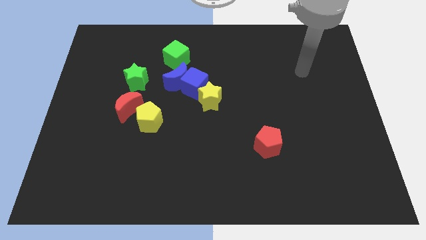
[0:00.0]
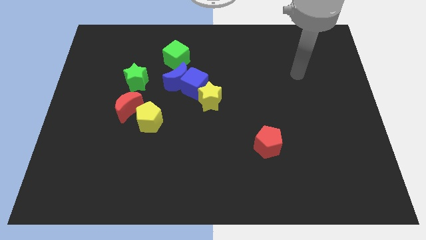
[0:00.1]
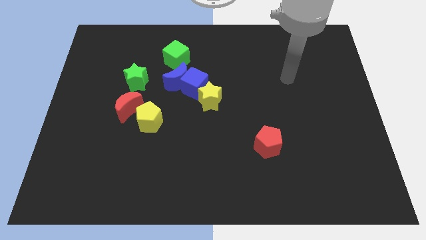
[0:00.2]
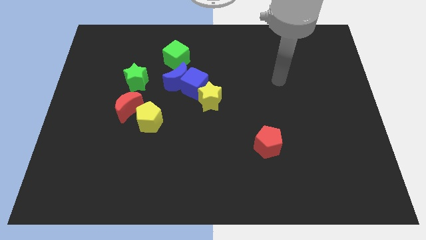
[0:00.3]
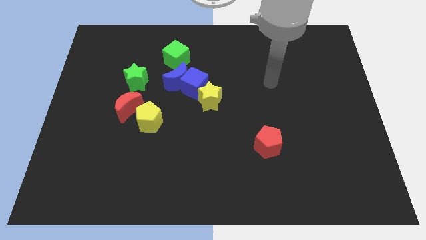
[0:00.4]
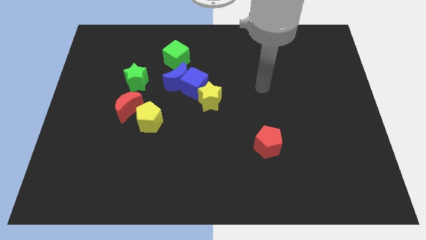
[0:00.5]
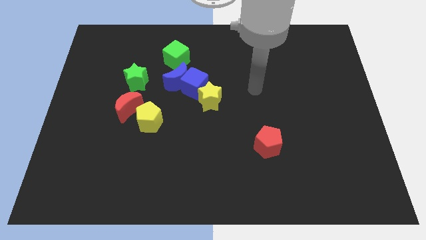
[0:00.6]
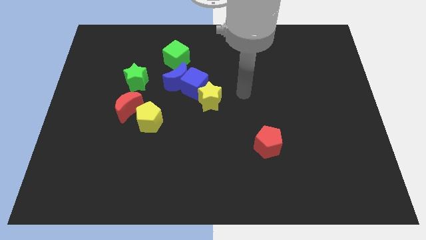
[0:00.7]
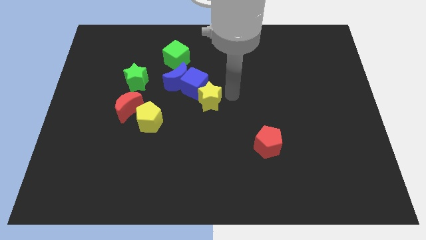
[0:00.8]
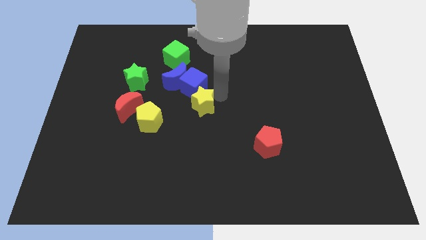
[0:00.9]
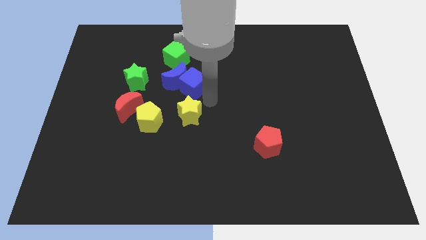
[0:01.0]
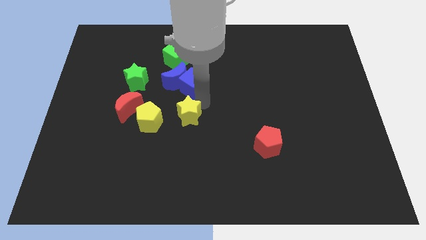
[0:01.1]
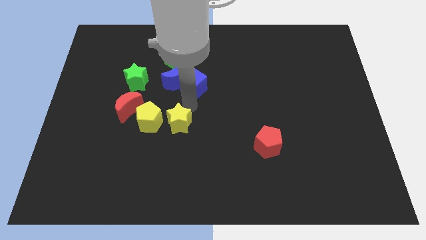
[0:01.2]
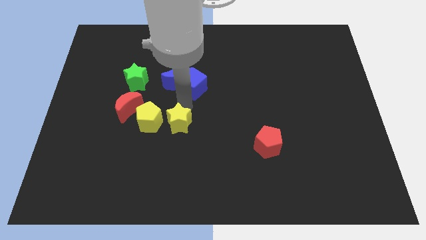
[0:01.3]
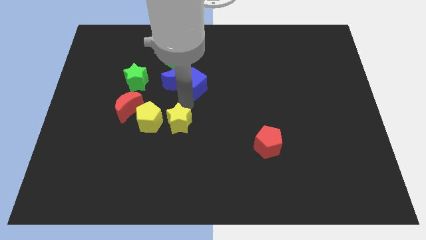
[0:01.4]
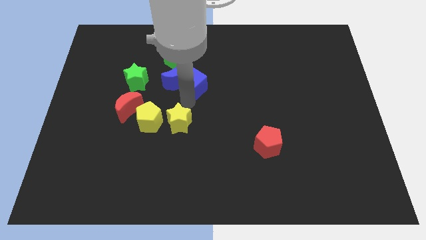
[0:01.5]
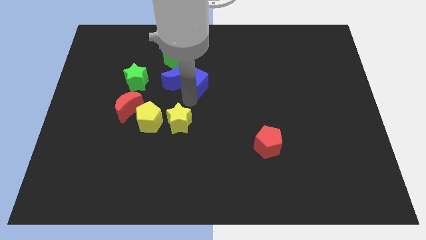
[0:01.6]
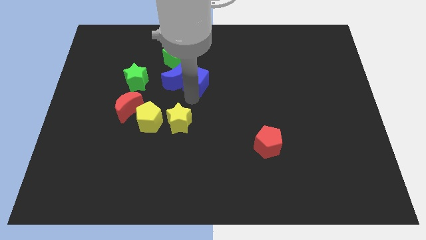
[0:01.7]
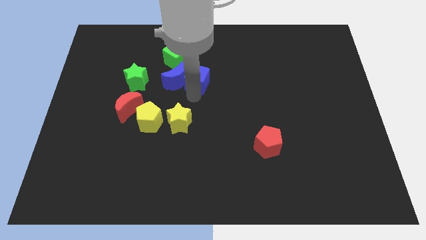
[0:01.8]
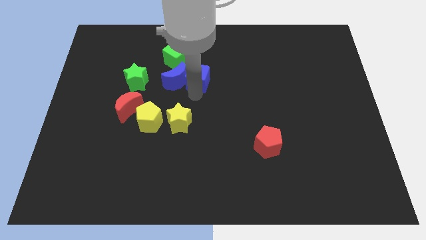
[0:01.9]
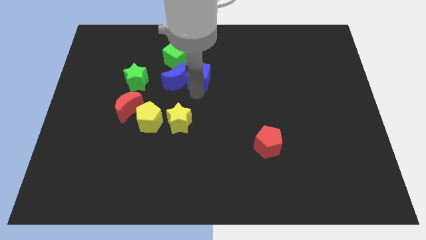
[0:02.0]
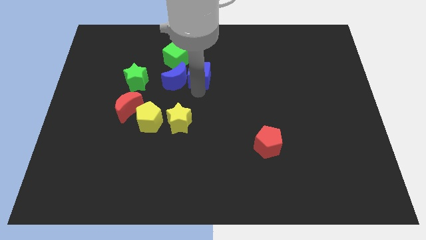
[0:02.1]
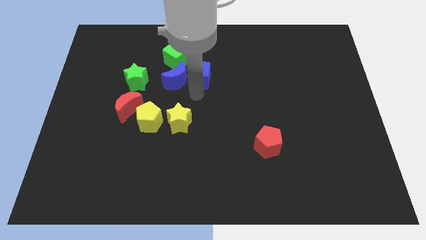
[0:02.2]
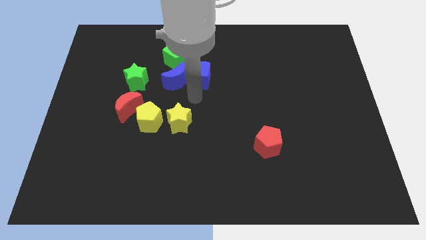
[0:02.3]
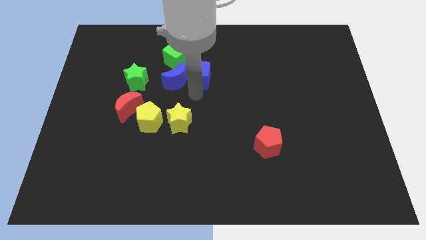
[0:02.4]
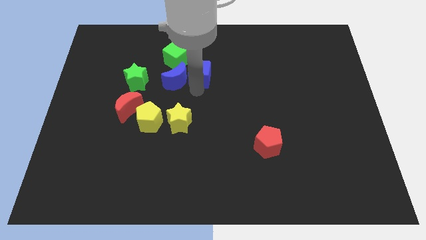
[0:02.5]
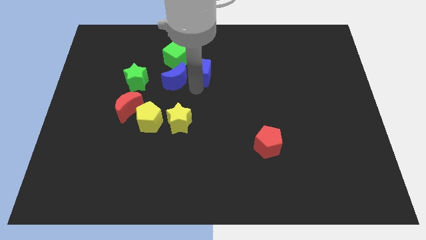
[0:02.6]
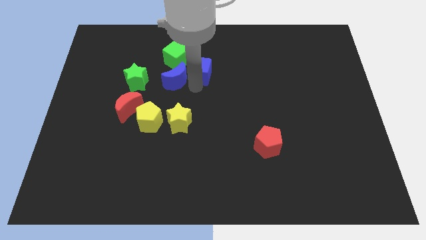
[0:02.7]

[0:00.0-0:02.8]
separate the blue cube from the blue moon and yellow star

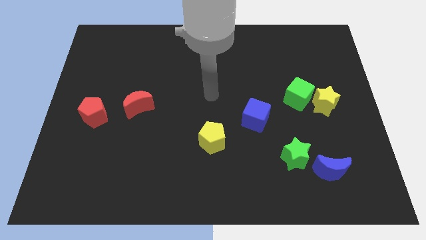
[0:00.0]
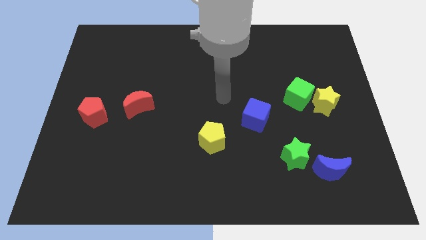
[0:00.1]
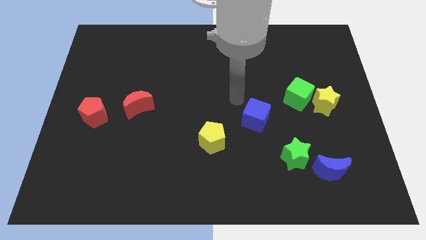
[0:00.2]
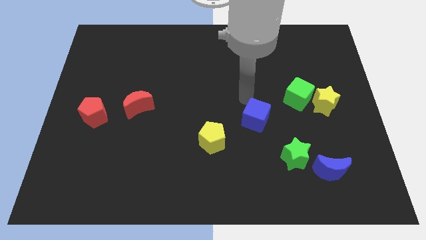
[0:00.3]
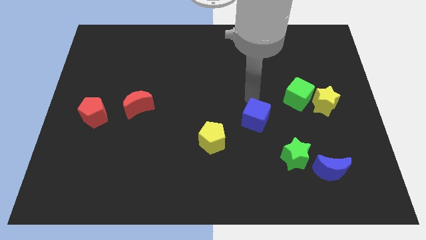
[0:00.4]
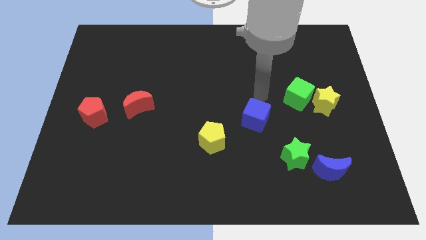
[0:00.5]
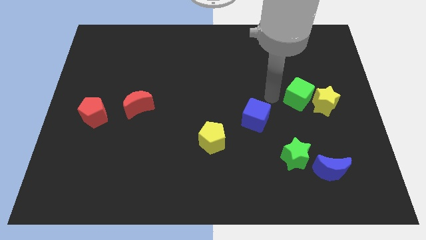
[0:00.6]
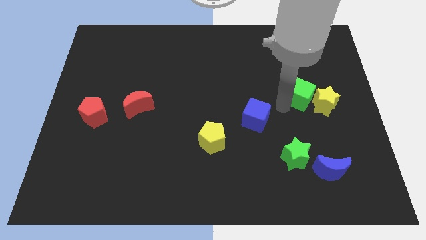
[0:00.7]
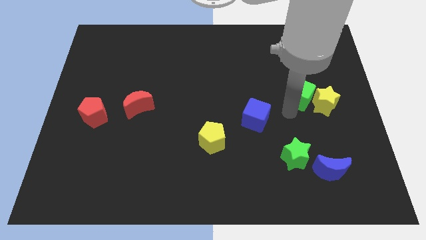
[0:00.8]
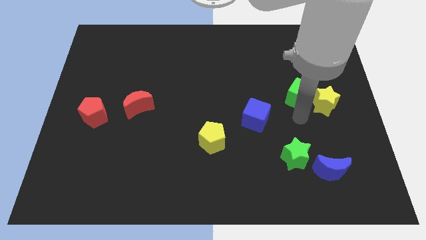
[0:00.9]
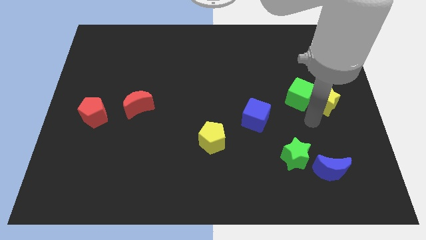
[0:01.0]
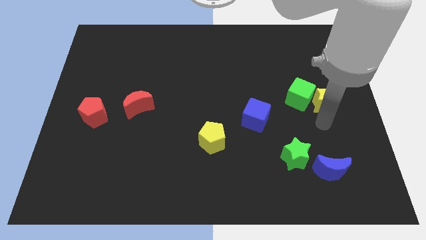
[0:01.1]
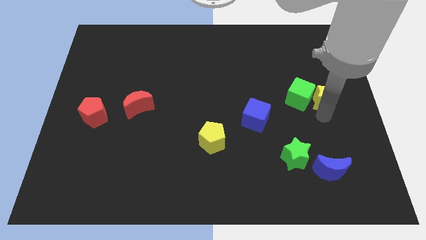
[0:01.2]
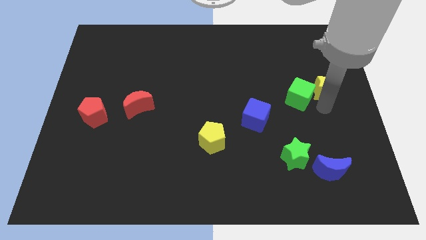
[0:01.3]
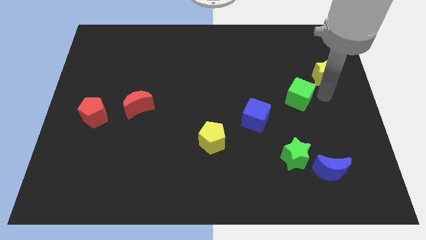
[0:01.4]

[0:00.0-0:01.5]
move the green cube away from the yellow star

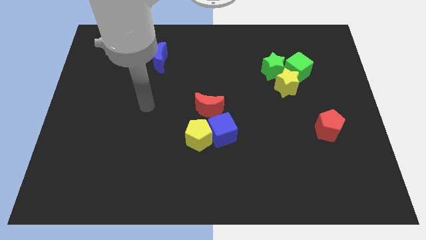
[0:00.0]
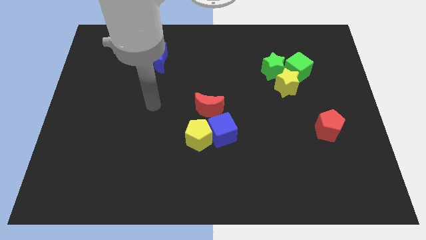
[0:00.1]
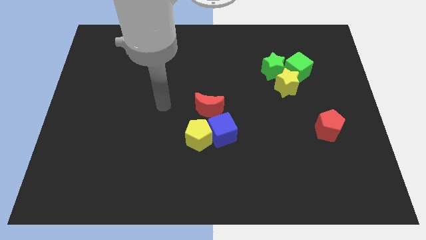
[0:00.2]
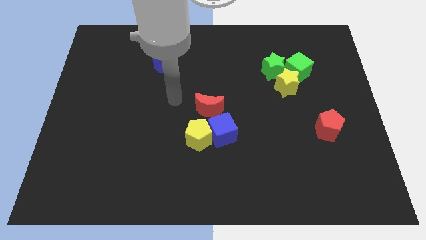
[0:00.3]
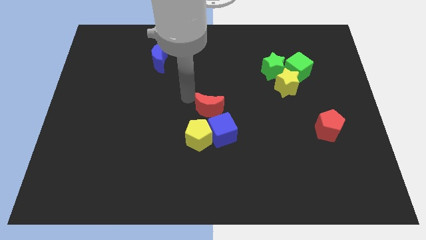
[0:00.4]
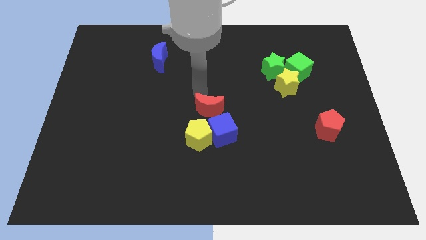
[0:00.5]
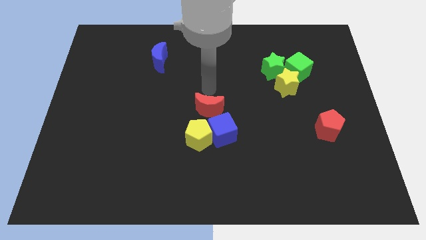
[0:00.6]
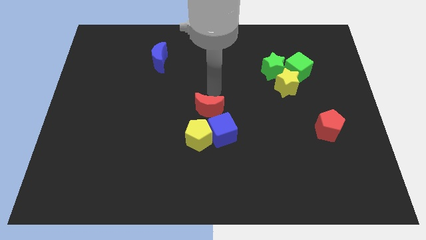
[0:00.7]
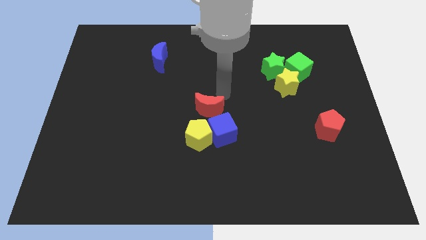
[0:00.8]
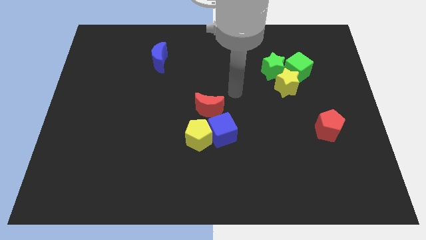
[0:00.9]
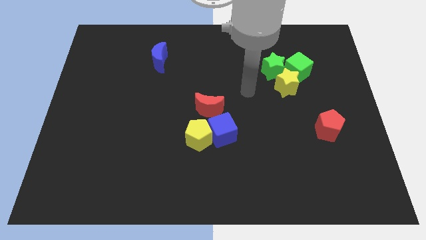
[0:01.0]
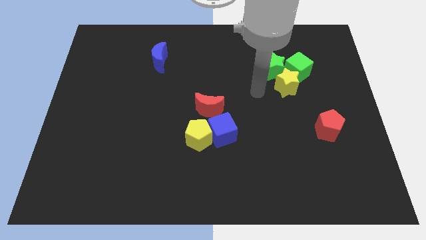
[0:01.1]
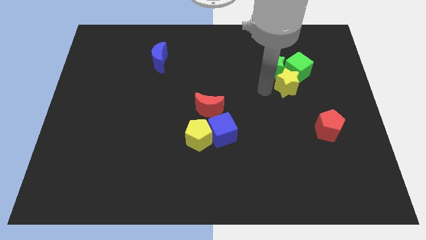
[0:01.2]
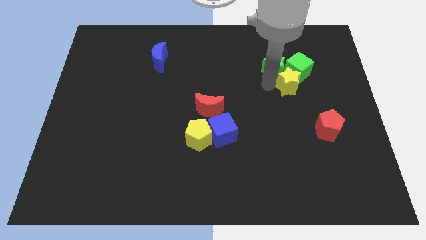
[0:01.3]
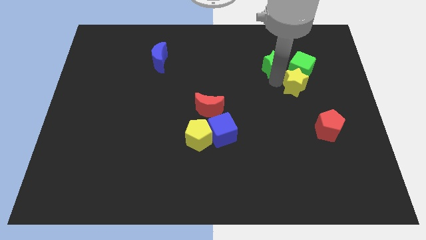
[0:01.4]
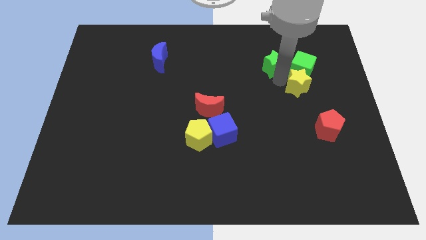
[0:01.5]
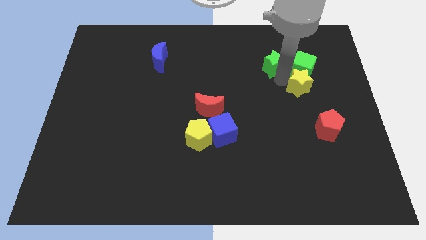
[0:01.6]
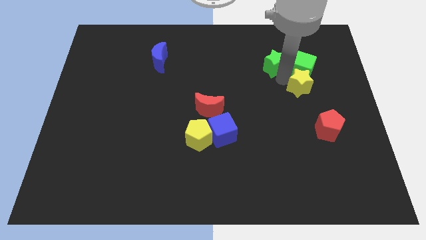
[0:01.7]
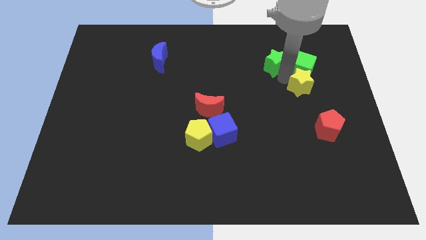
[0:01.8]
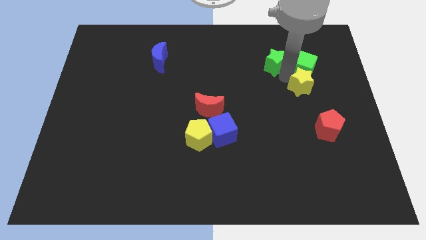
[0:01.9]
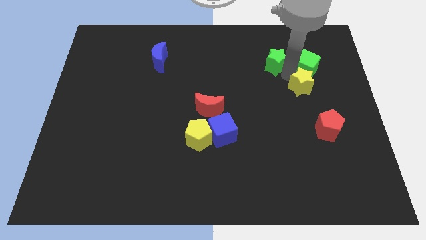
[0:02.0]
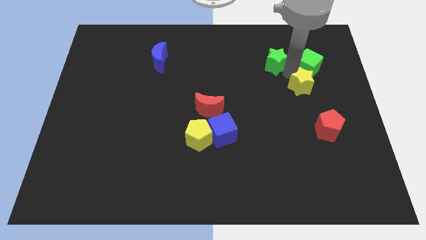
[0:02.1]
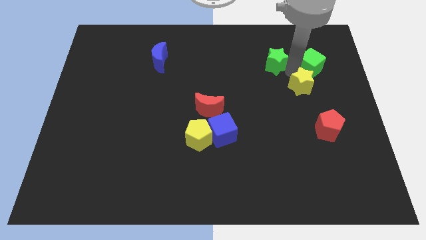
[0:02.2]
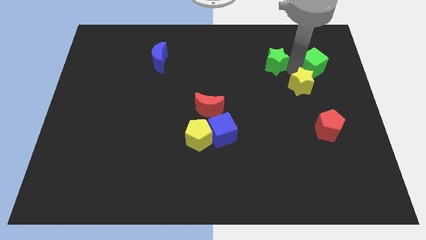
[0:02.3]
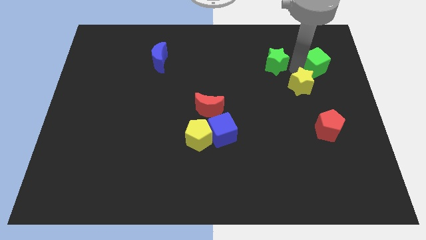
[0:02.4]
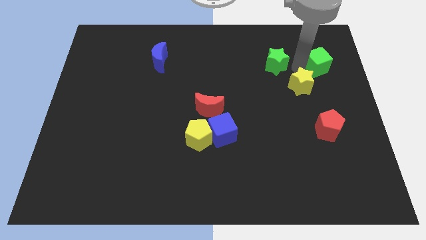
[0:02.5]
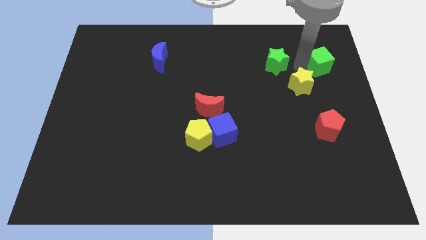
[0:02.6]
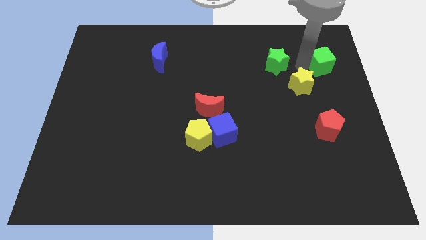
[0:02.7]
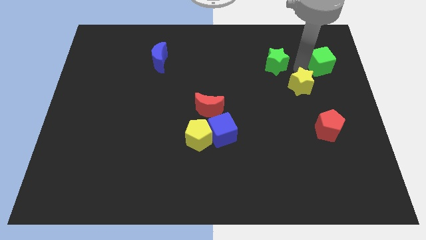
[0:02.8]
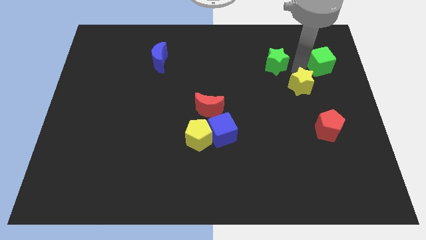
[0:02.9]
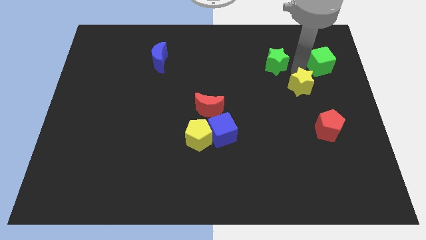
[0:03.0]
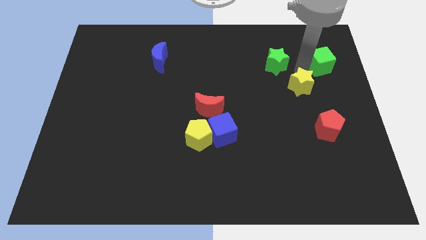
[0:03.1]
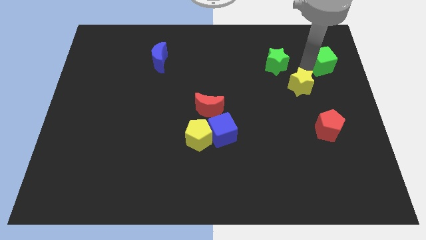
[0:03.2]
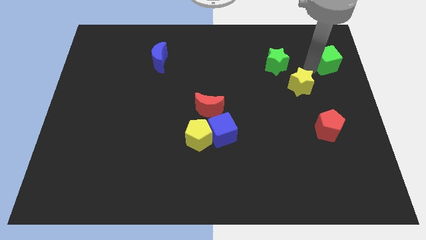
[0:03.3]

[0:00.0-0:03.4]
separate the green cube from the green star and yellow star

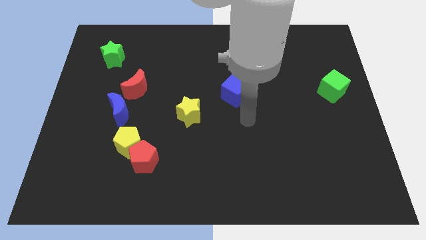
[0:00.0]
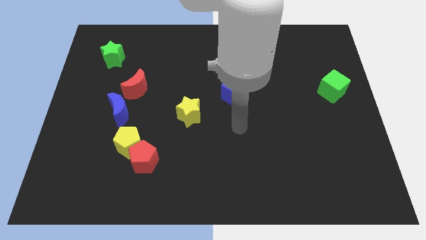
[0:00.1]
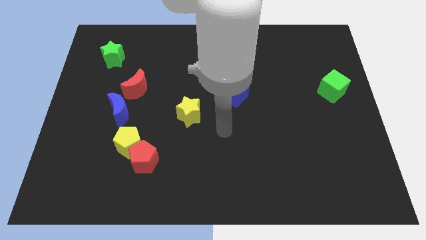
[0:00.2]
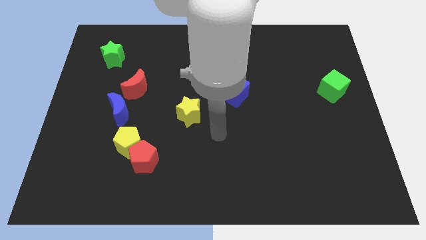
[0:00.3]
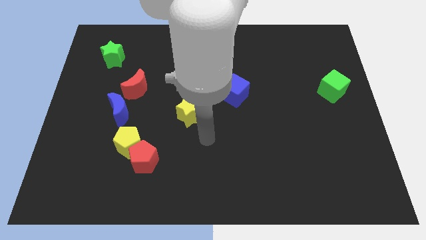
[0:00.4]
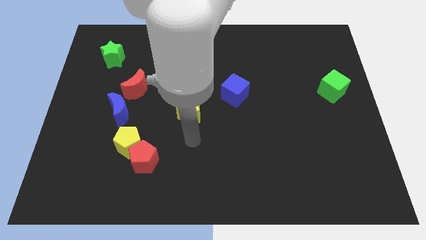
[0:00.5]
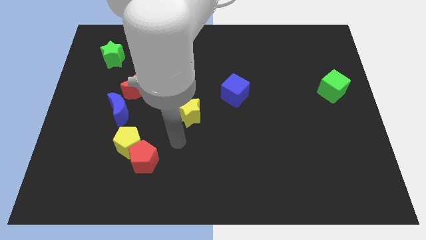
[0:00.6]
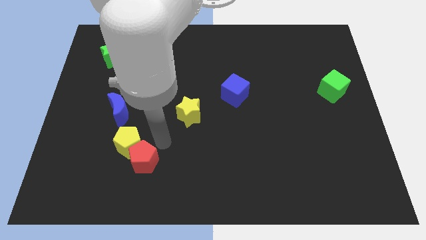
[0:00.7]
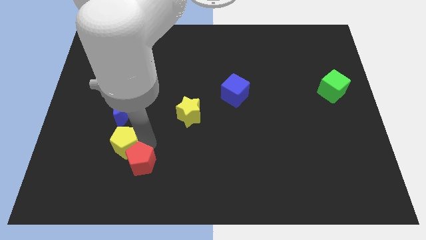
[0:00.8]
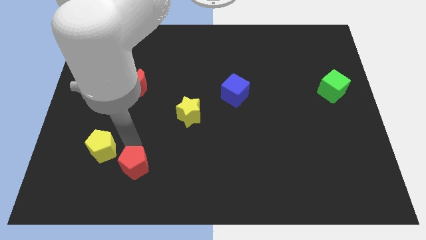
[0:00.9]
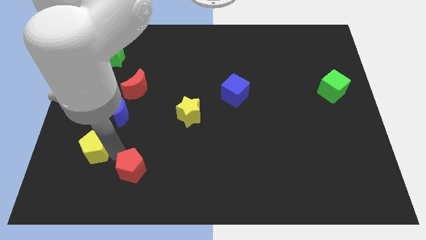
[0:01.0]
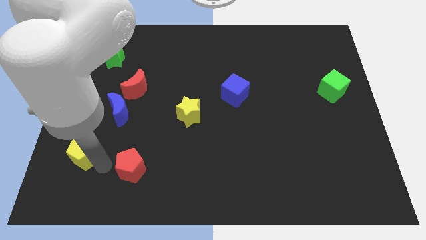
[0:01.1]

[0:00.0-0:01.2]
pull the red pentagon apart from the yellow pentagon

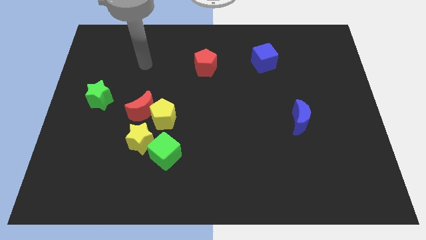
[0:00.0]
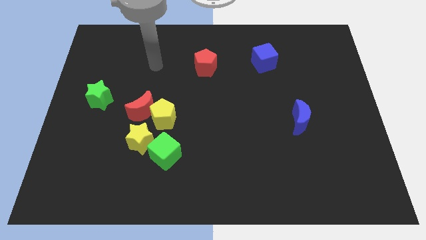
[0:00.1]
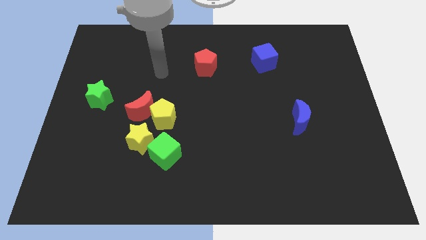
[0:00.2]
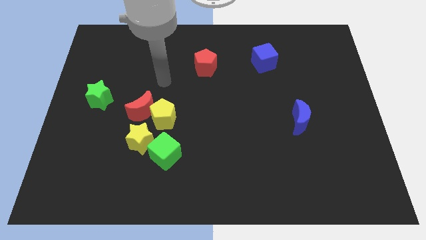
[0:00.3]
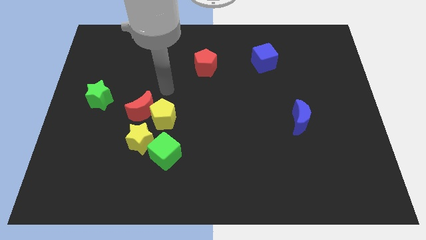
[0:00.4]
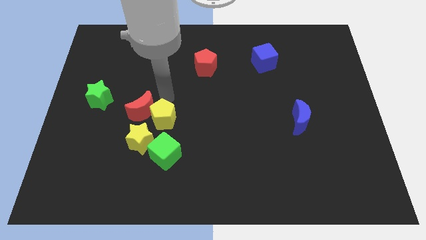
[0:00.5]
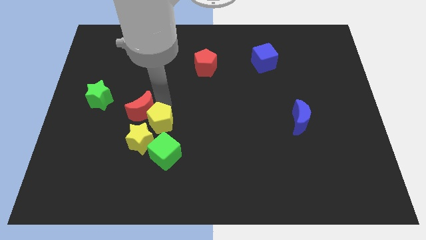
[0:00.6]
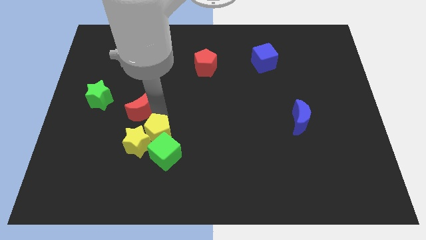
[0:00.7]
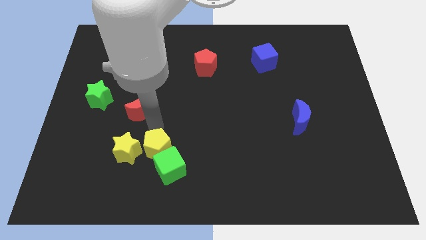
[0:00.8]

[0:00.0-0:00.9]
pull the red moon apart from the yellow pentagon and yellow star
